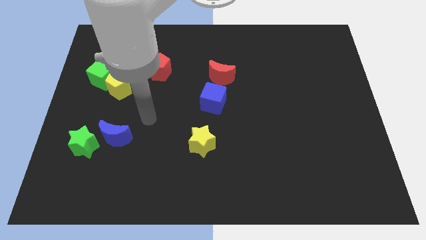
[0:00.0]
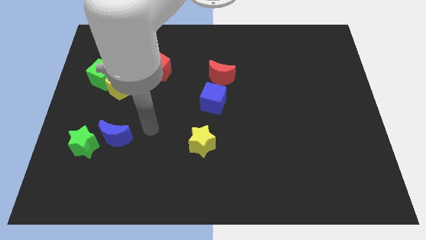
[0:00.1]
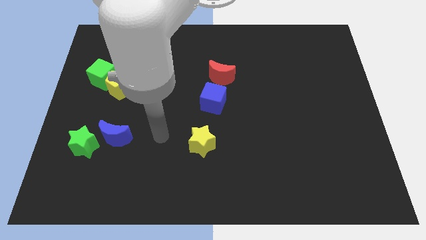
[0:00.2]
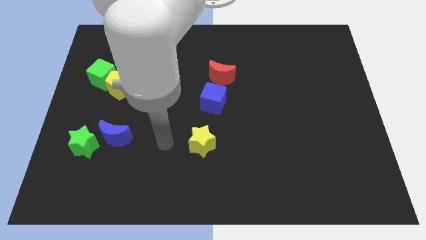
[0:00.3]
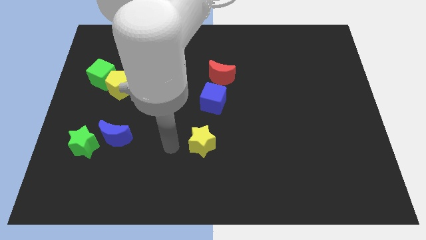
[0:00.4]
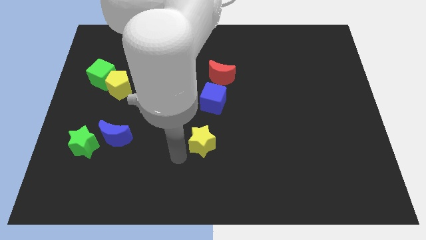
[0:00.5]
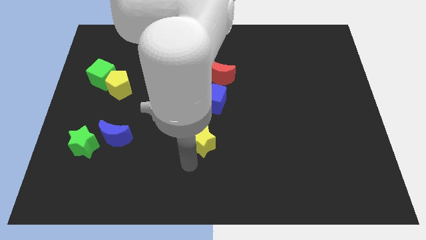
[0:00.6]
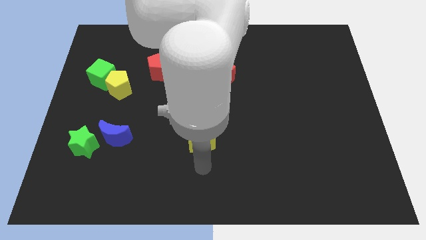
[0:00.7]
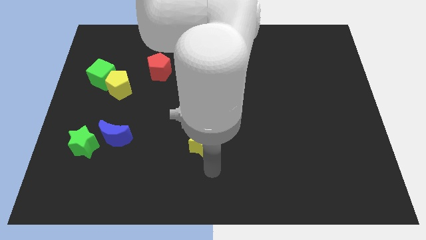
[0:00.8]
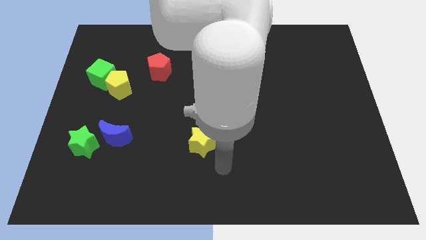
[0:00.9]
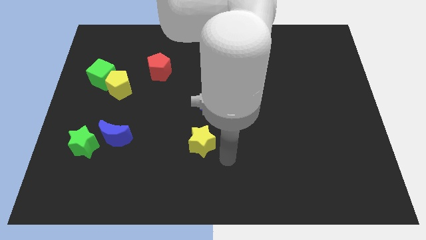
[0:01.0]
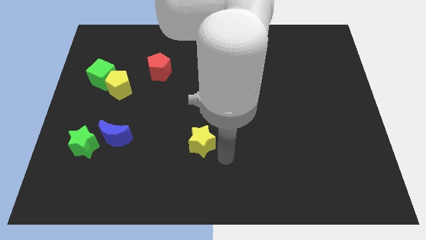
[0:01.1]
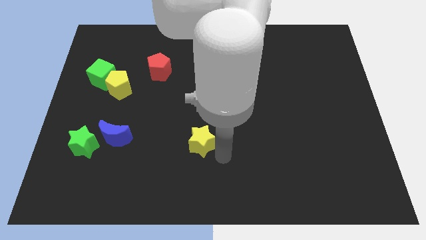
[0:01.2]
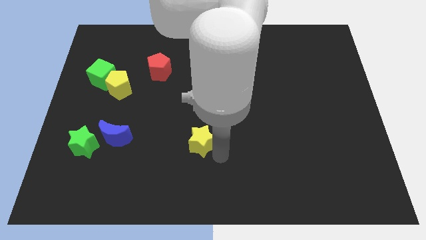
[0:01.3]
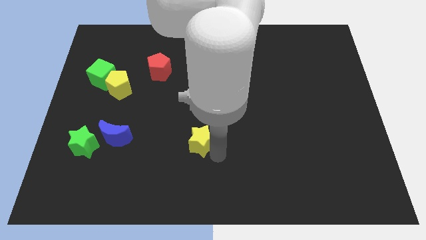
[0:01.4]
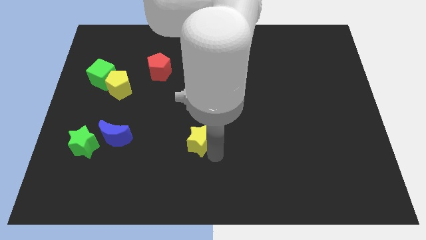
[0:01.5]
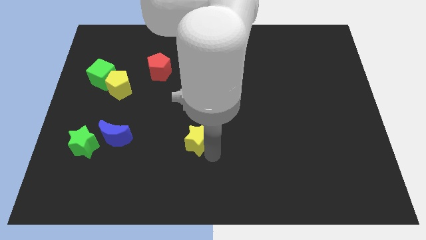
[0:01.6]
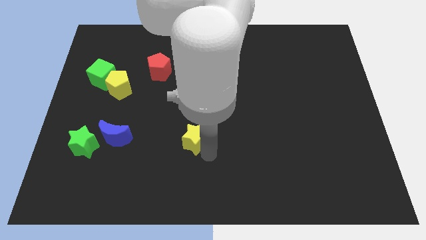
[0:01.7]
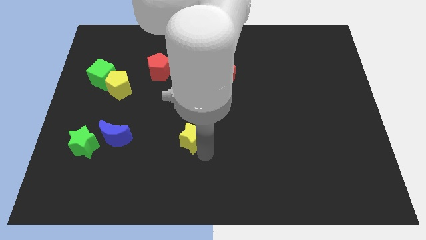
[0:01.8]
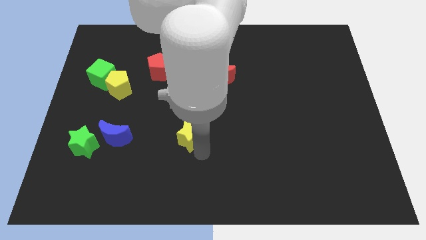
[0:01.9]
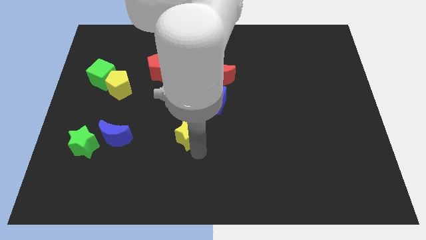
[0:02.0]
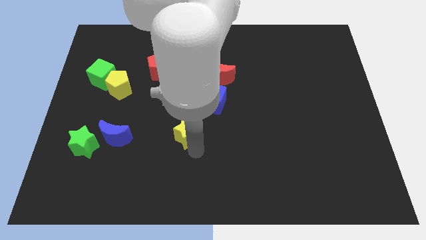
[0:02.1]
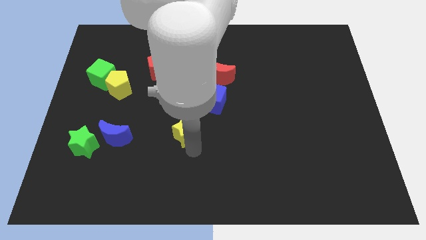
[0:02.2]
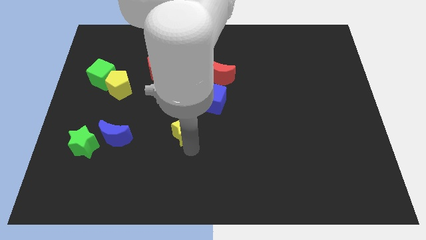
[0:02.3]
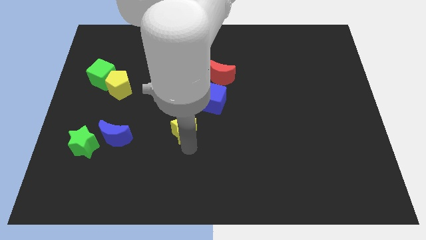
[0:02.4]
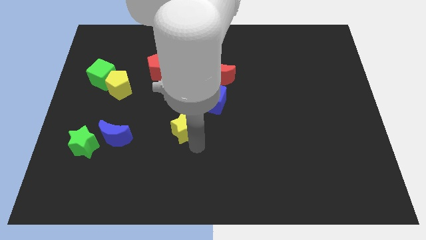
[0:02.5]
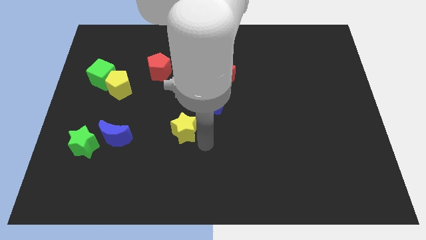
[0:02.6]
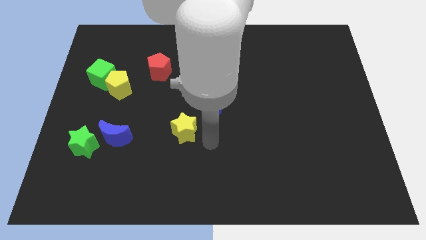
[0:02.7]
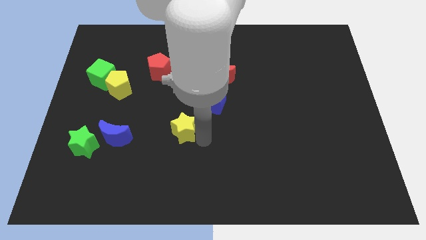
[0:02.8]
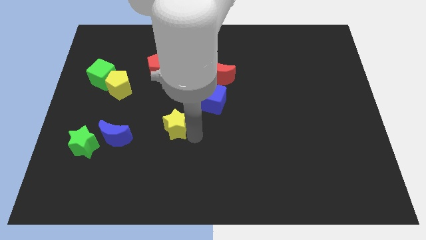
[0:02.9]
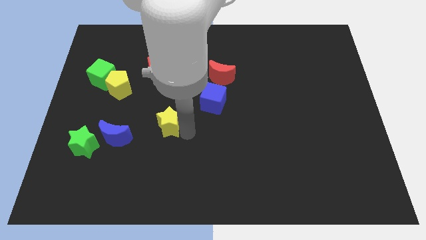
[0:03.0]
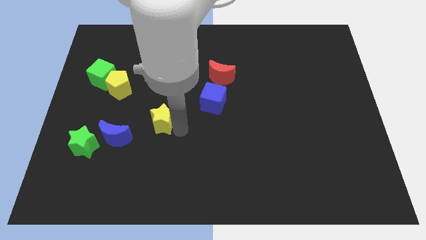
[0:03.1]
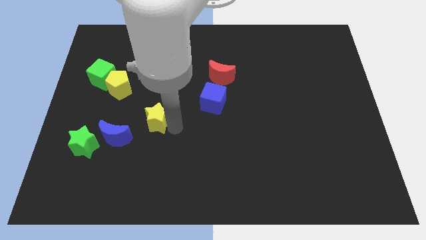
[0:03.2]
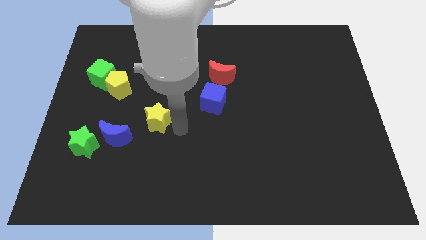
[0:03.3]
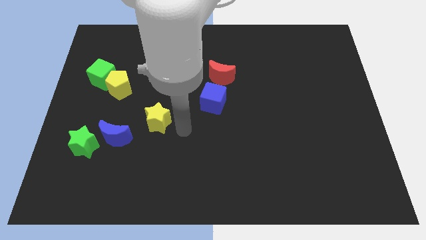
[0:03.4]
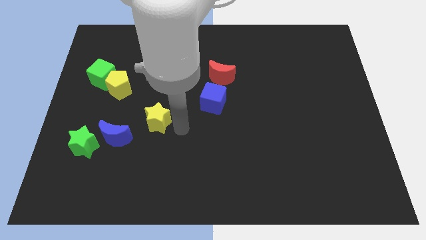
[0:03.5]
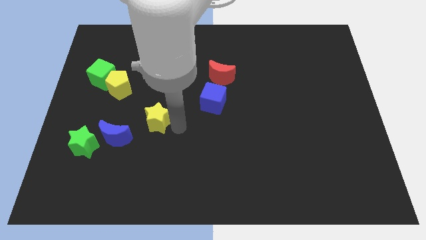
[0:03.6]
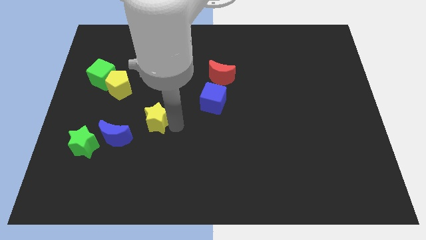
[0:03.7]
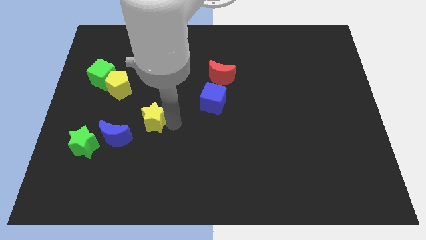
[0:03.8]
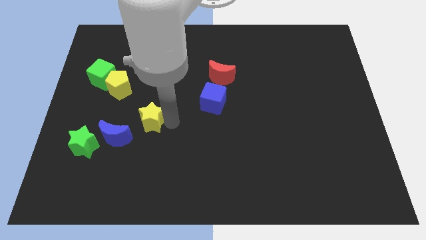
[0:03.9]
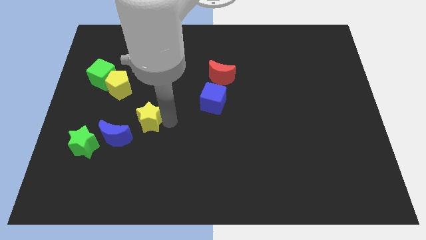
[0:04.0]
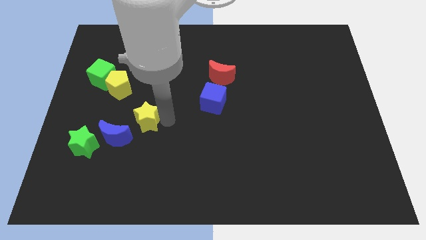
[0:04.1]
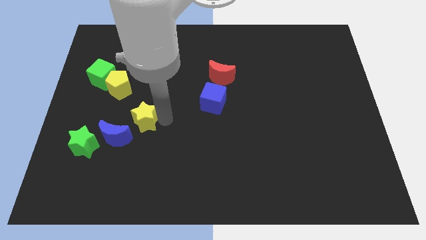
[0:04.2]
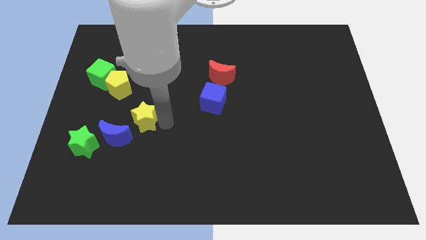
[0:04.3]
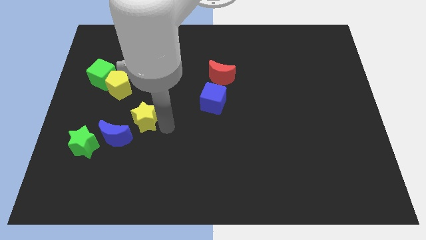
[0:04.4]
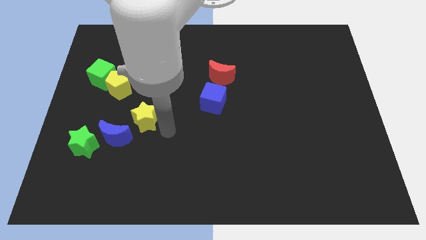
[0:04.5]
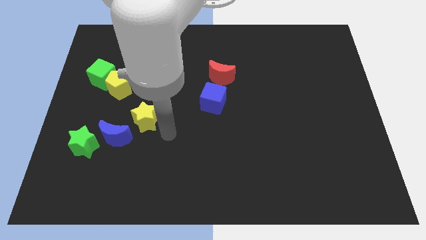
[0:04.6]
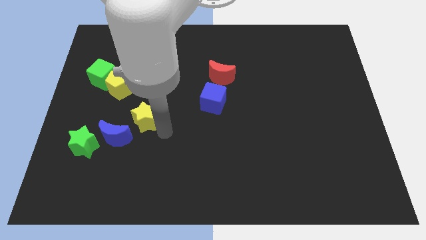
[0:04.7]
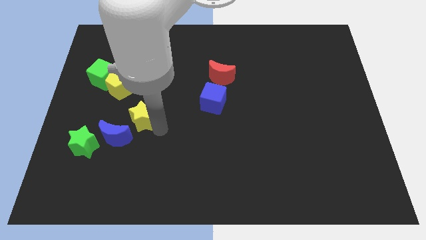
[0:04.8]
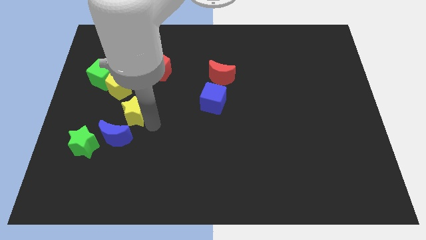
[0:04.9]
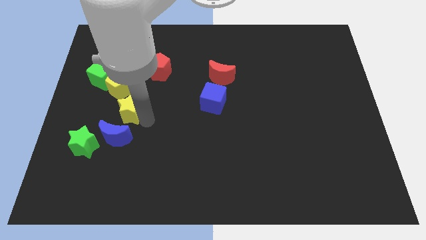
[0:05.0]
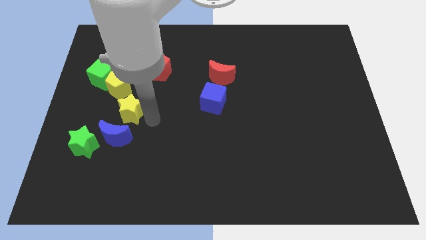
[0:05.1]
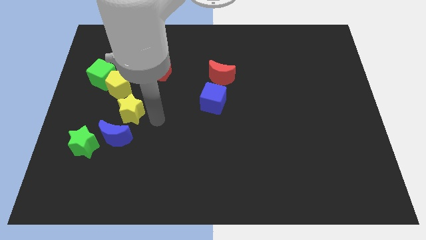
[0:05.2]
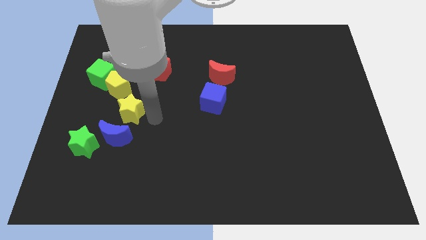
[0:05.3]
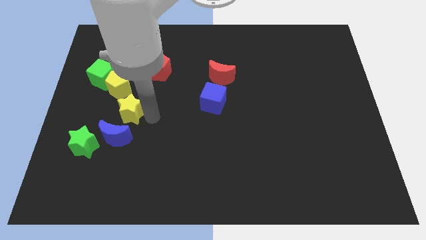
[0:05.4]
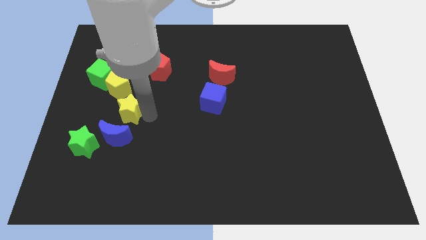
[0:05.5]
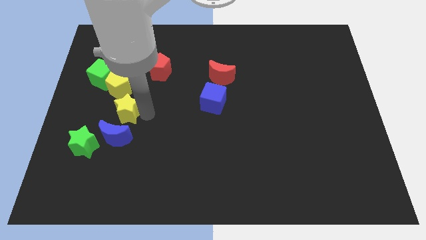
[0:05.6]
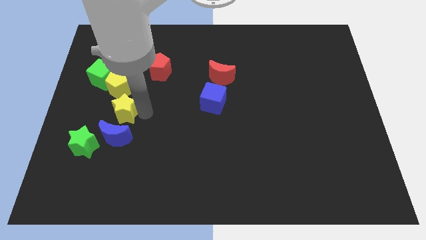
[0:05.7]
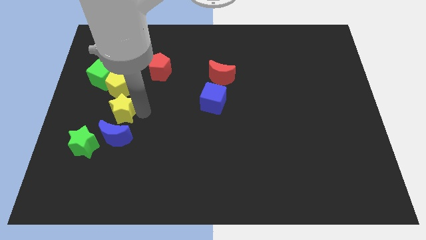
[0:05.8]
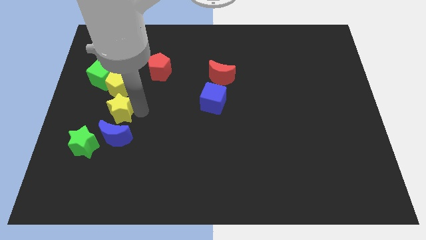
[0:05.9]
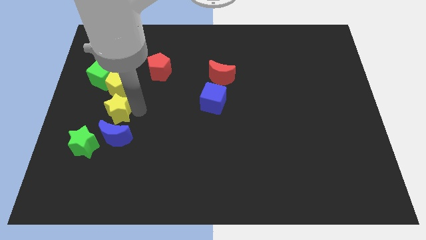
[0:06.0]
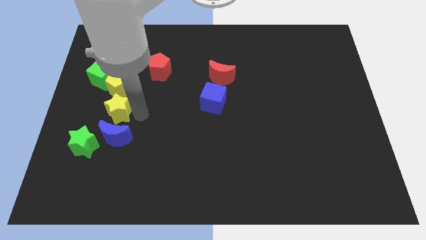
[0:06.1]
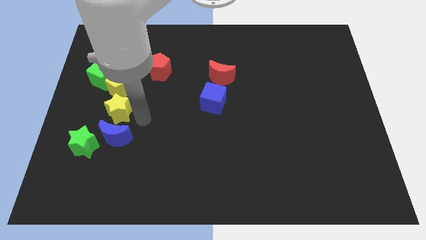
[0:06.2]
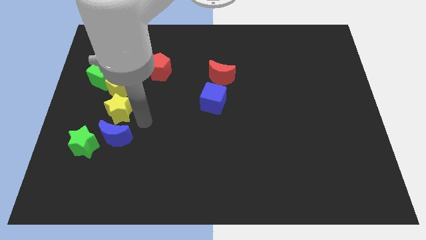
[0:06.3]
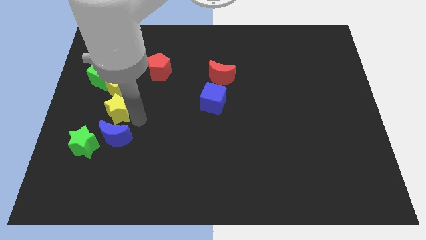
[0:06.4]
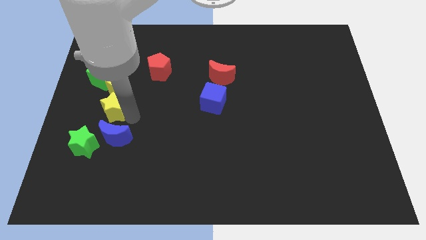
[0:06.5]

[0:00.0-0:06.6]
push the yellow star to the bottom left side of the yellow pentagon

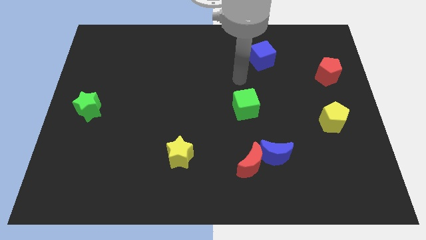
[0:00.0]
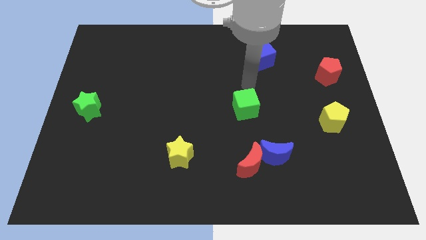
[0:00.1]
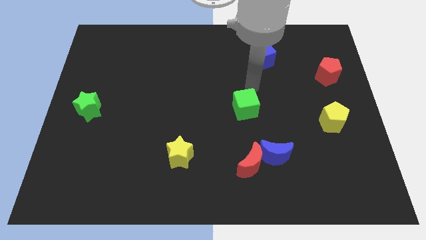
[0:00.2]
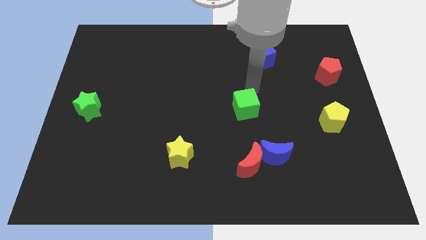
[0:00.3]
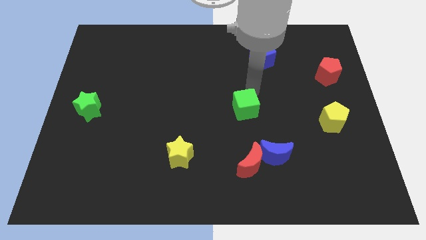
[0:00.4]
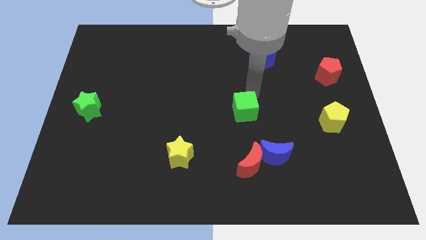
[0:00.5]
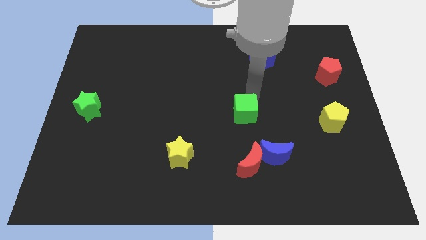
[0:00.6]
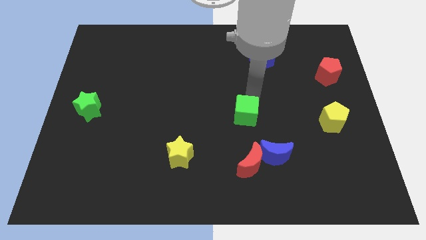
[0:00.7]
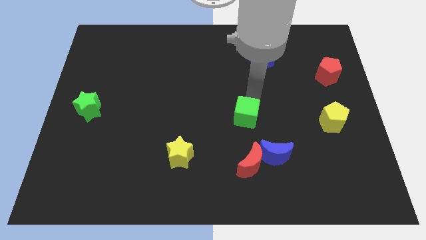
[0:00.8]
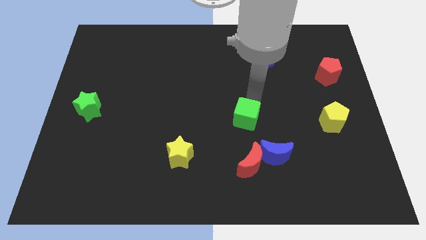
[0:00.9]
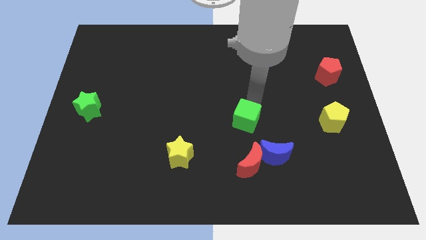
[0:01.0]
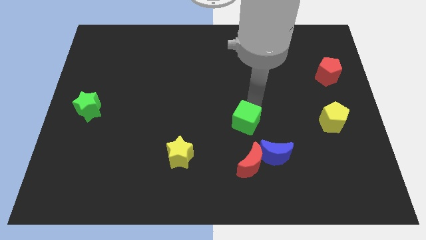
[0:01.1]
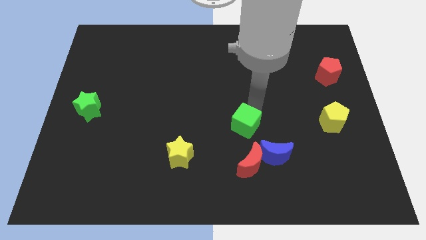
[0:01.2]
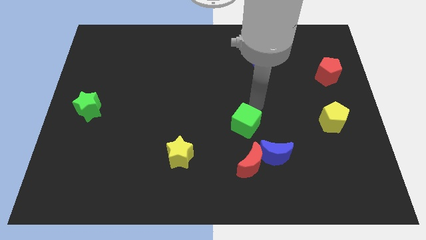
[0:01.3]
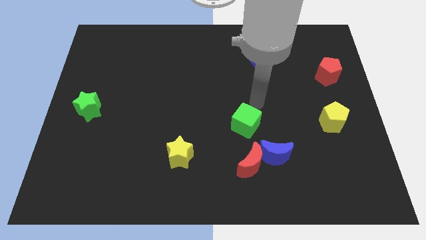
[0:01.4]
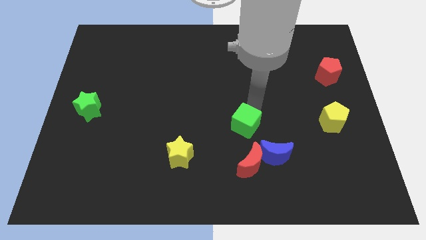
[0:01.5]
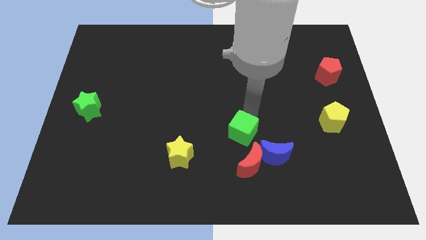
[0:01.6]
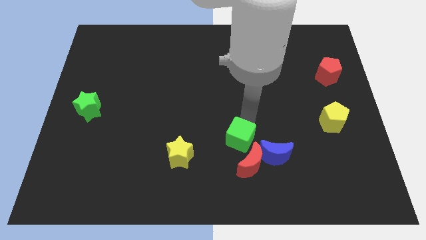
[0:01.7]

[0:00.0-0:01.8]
slide the green cube to the right of the yellow star

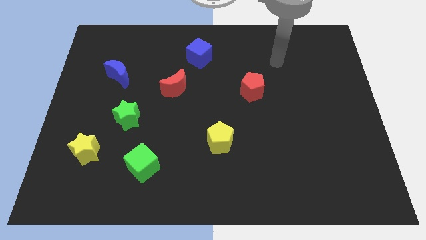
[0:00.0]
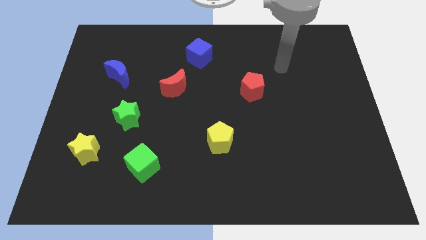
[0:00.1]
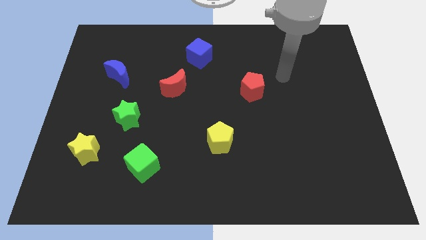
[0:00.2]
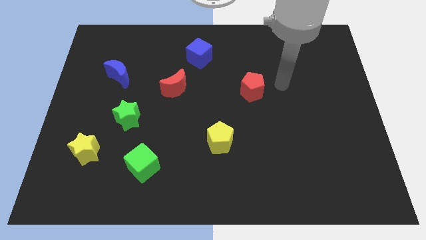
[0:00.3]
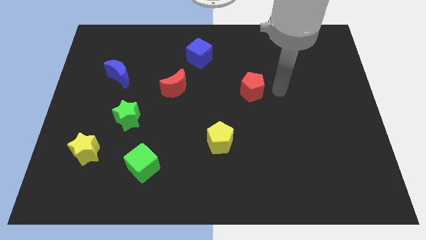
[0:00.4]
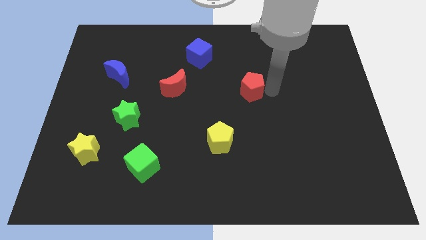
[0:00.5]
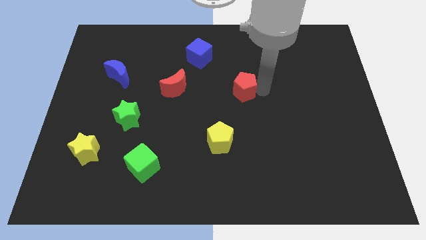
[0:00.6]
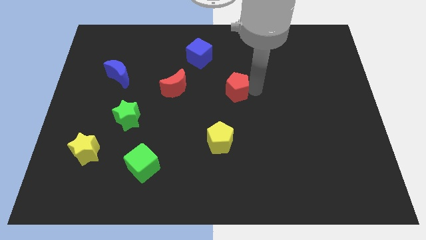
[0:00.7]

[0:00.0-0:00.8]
move the red pentagon right of the red moon
